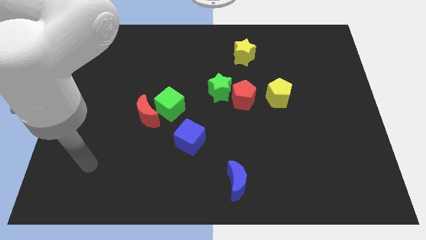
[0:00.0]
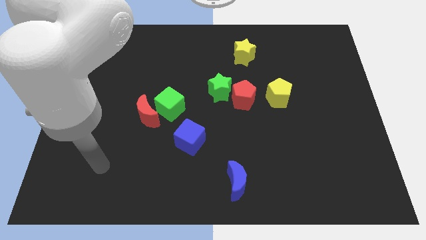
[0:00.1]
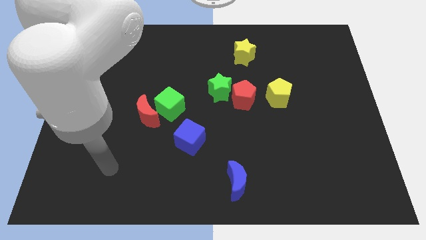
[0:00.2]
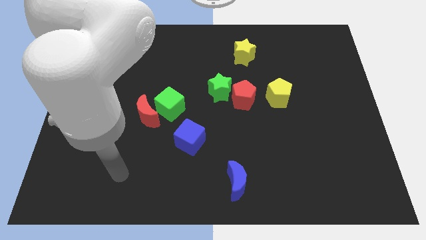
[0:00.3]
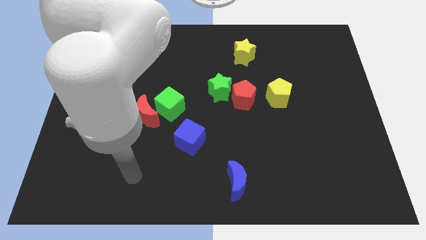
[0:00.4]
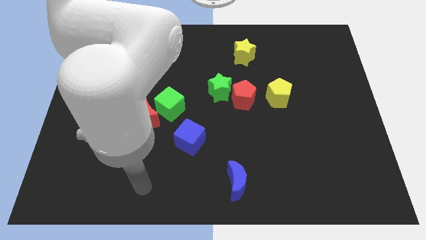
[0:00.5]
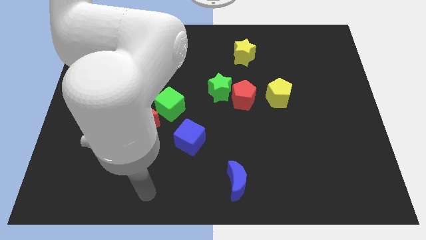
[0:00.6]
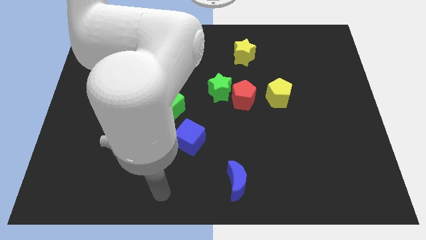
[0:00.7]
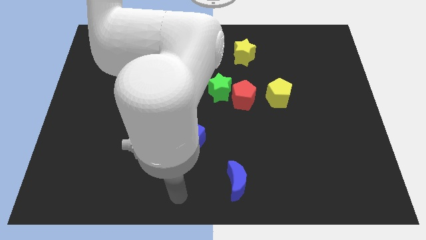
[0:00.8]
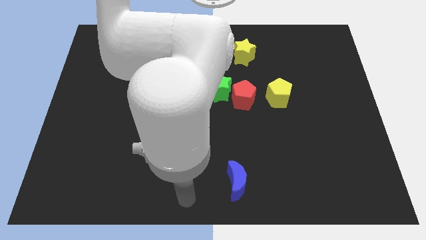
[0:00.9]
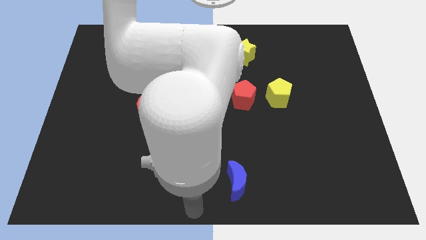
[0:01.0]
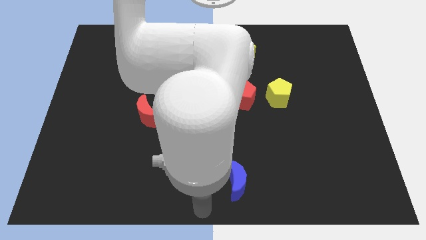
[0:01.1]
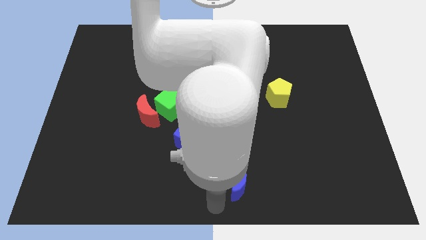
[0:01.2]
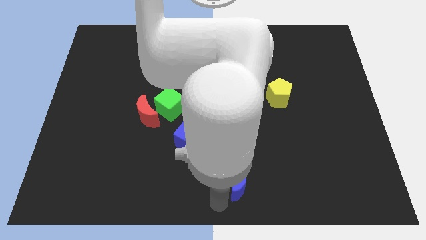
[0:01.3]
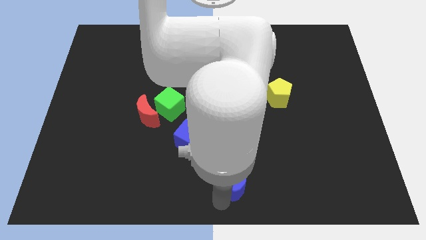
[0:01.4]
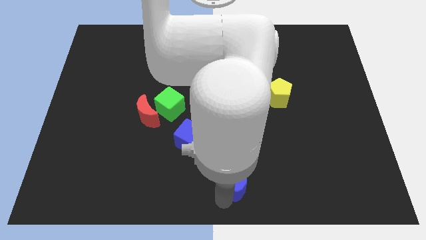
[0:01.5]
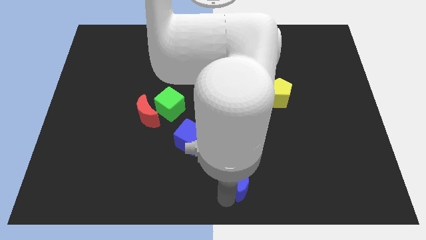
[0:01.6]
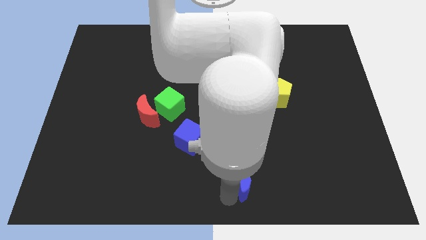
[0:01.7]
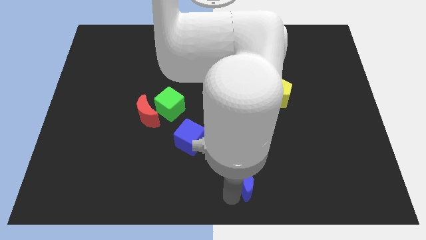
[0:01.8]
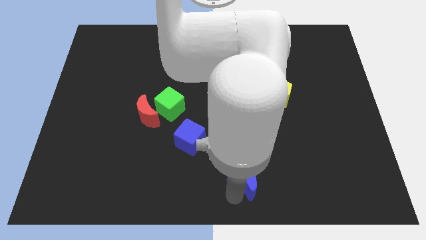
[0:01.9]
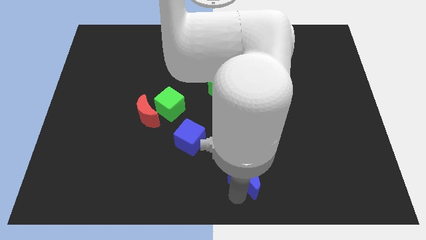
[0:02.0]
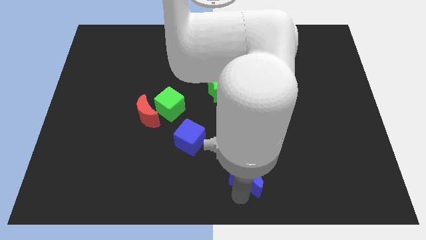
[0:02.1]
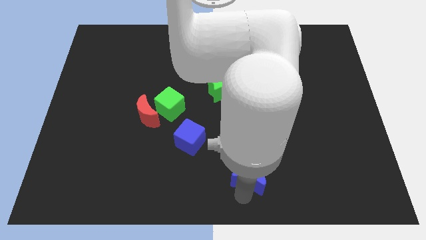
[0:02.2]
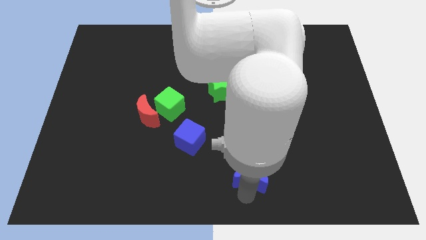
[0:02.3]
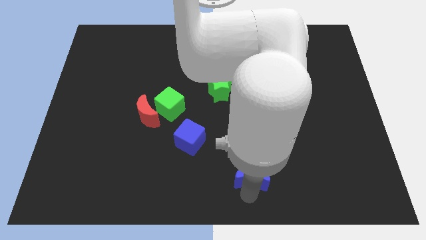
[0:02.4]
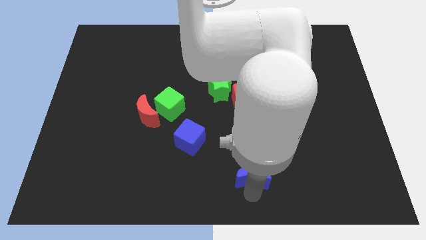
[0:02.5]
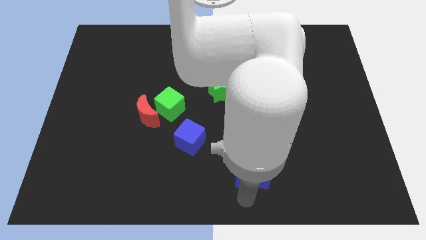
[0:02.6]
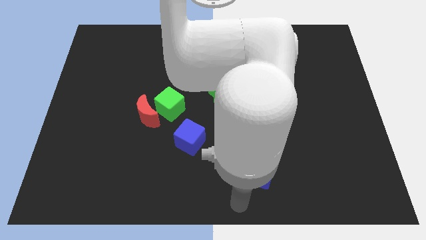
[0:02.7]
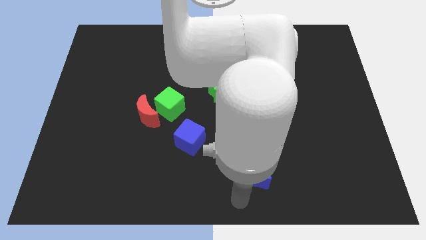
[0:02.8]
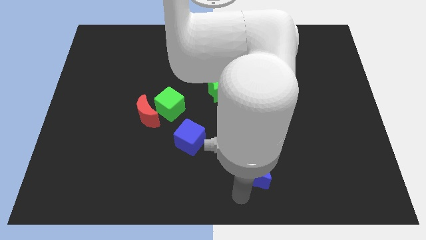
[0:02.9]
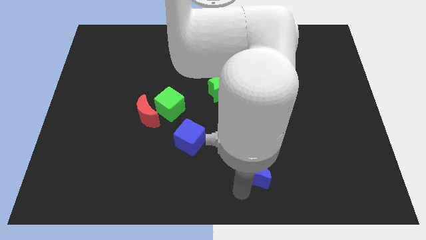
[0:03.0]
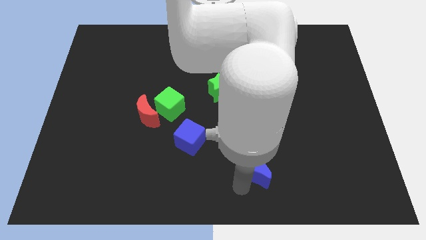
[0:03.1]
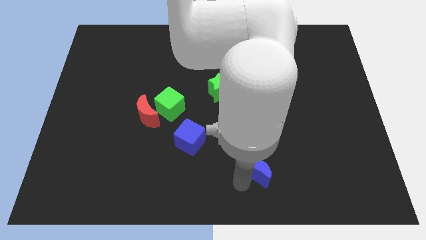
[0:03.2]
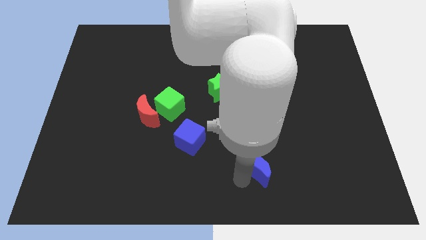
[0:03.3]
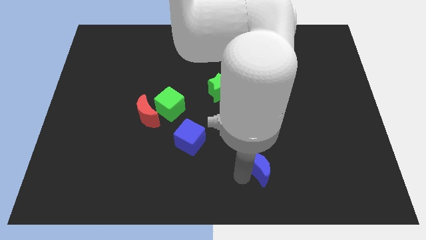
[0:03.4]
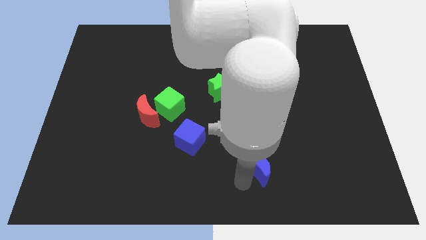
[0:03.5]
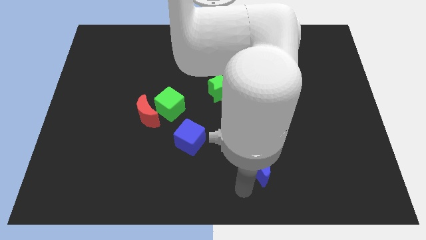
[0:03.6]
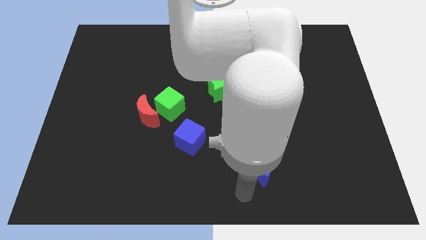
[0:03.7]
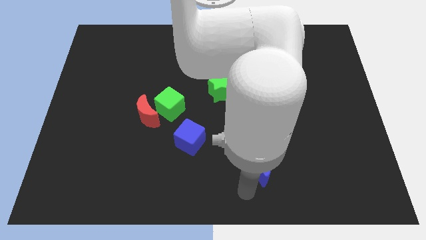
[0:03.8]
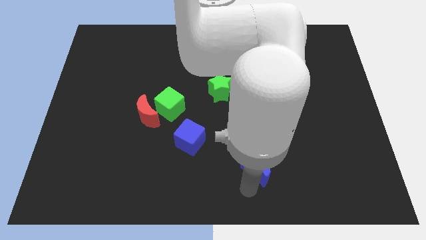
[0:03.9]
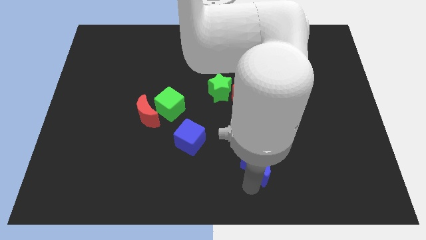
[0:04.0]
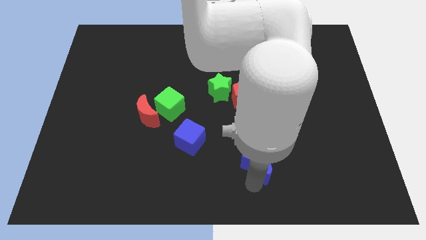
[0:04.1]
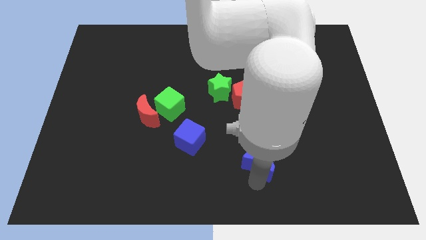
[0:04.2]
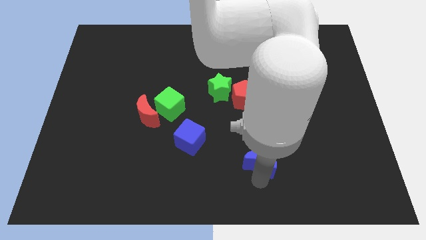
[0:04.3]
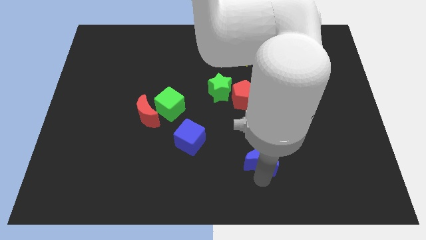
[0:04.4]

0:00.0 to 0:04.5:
slightly slide the blue moon up and then right

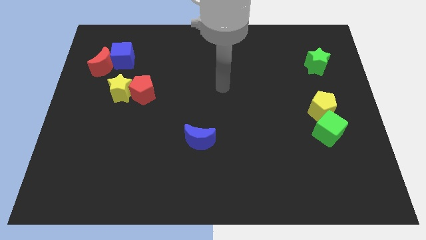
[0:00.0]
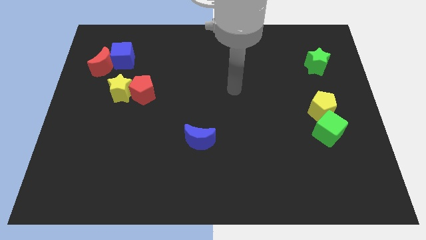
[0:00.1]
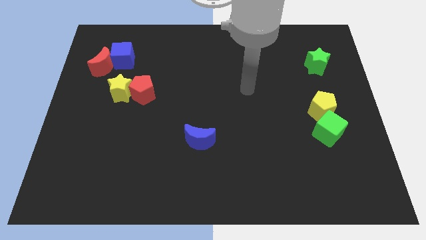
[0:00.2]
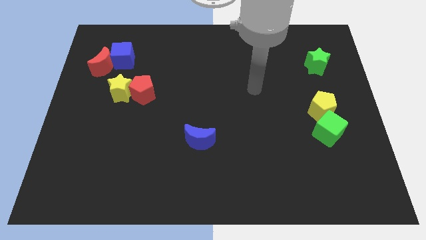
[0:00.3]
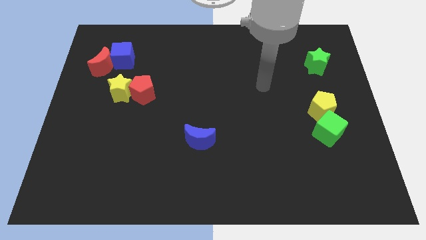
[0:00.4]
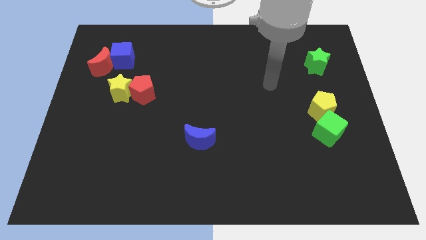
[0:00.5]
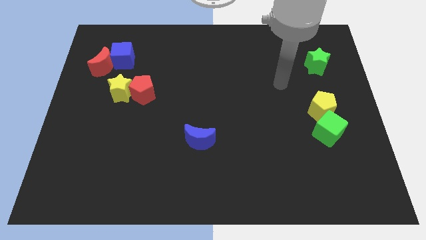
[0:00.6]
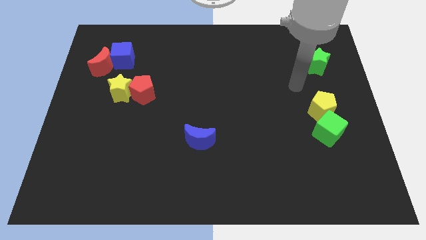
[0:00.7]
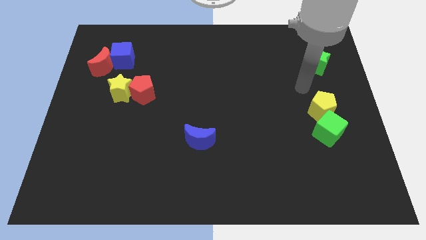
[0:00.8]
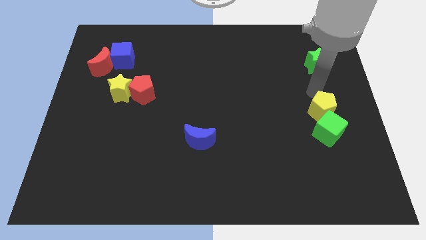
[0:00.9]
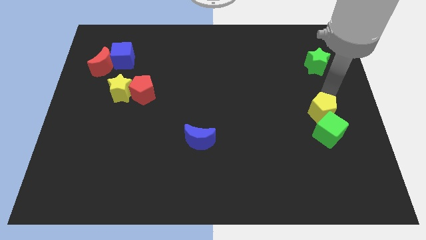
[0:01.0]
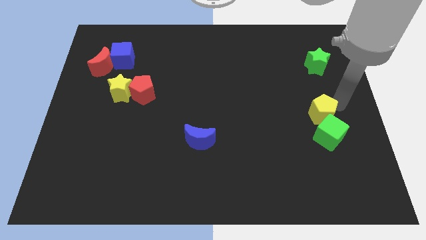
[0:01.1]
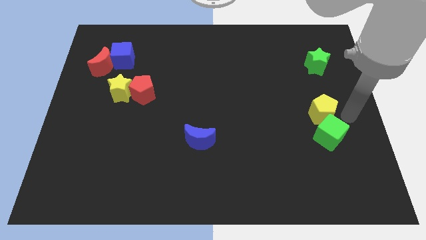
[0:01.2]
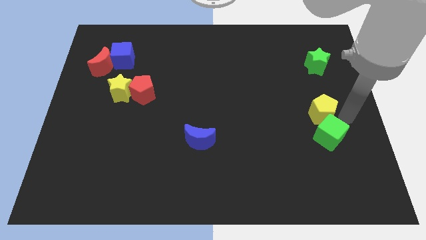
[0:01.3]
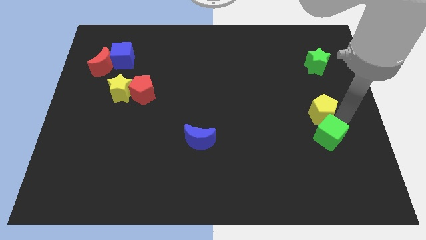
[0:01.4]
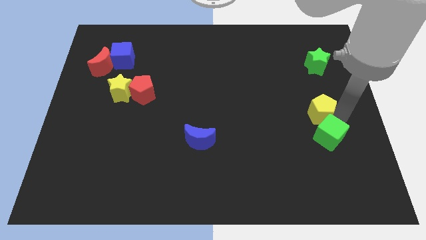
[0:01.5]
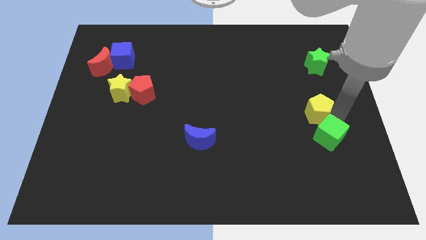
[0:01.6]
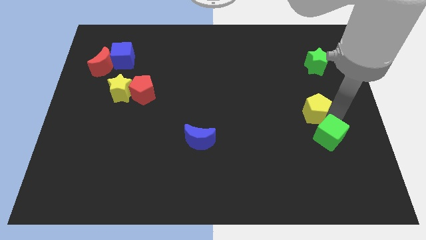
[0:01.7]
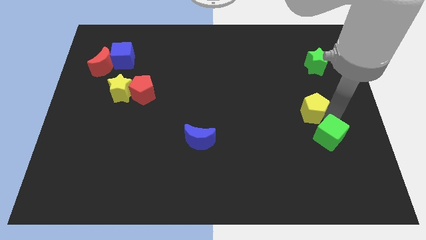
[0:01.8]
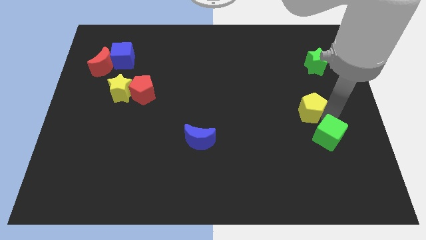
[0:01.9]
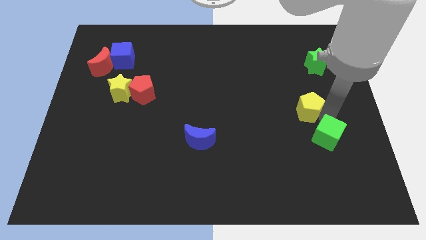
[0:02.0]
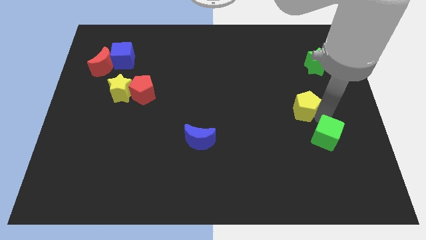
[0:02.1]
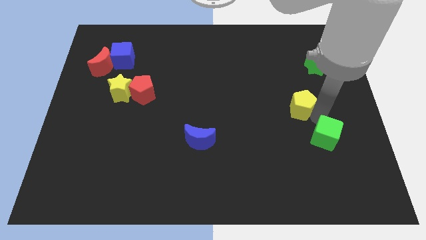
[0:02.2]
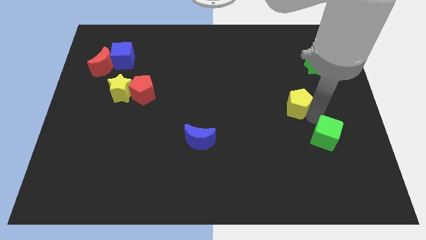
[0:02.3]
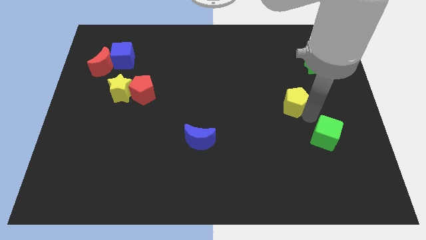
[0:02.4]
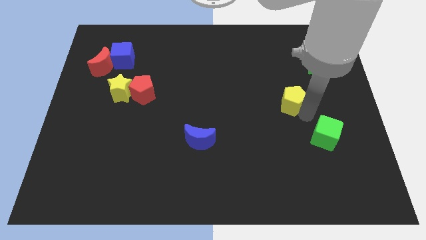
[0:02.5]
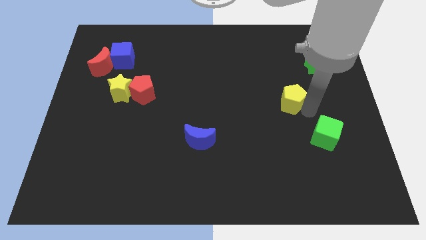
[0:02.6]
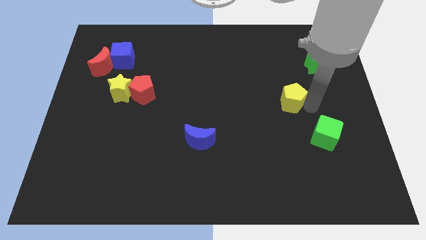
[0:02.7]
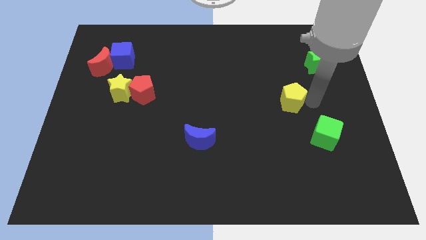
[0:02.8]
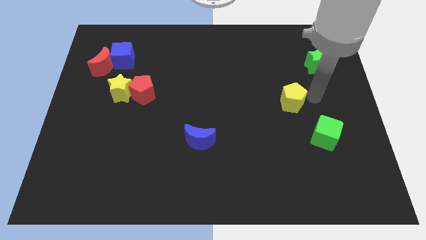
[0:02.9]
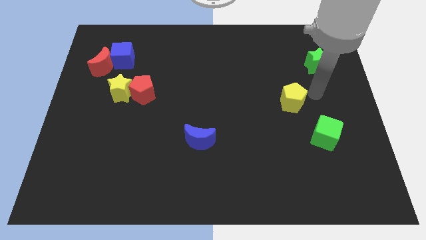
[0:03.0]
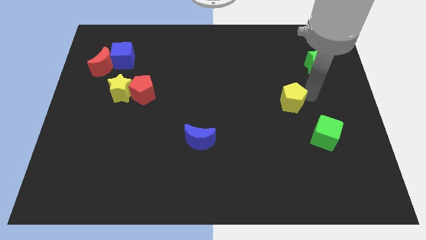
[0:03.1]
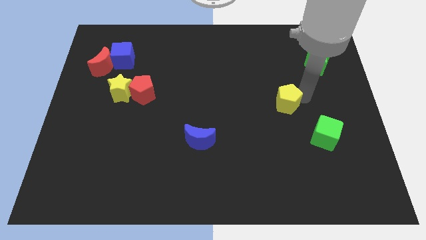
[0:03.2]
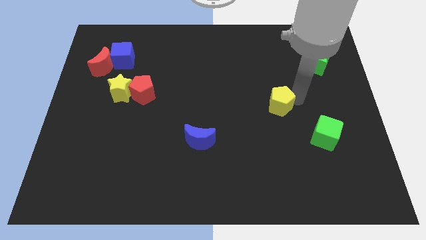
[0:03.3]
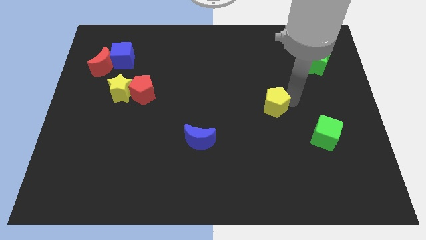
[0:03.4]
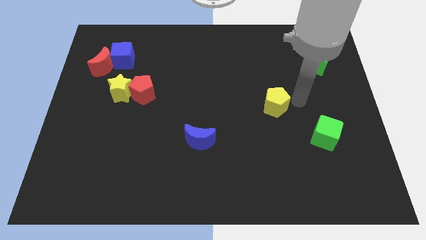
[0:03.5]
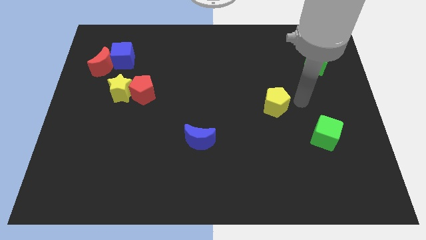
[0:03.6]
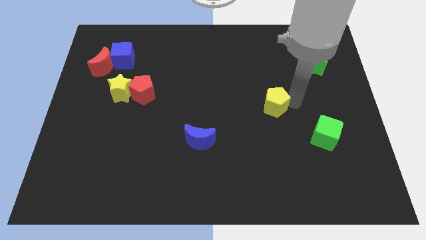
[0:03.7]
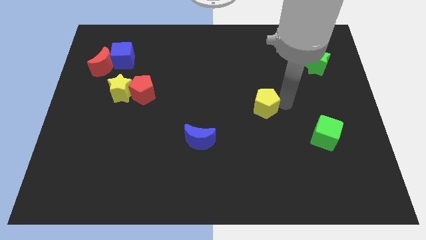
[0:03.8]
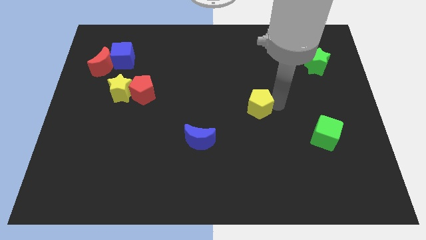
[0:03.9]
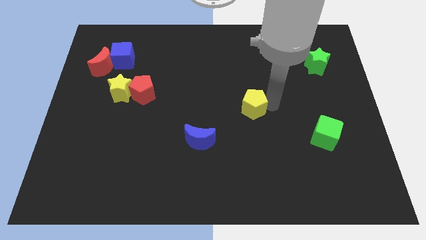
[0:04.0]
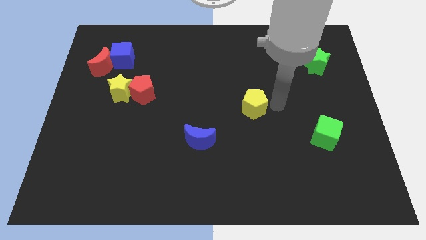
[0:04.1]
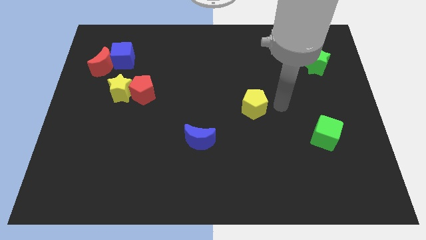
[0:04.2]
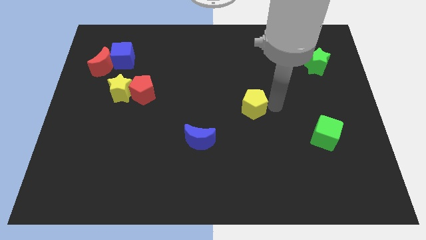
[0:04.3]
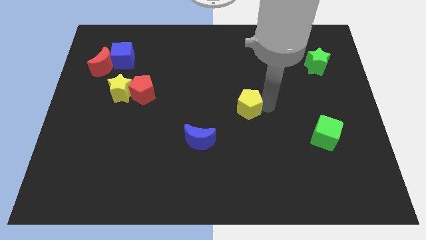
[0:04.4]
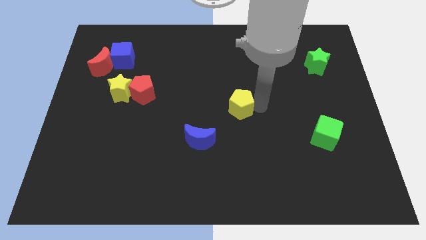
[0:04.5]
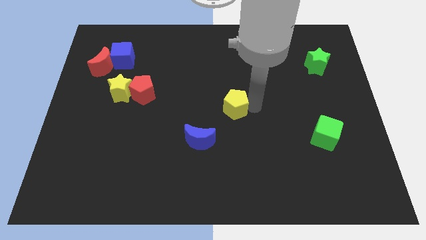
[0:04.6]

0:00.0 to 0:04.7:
move the yellow pentagon to the left
